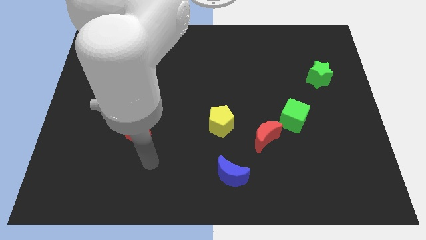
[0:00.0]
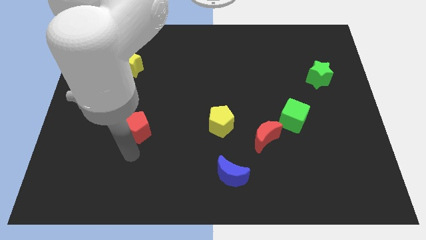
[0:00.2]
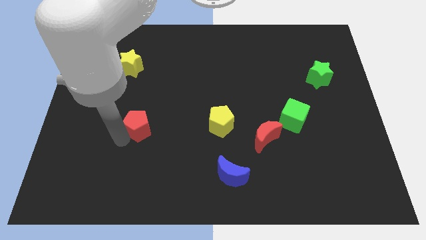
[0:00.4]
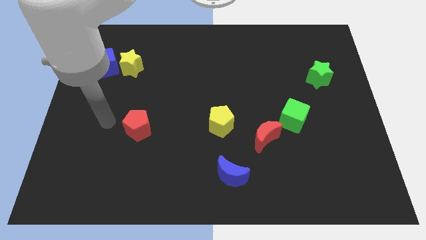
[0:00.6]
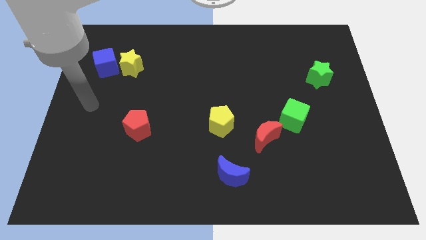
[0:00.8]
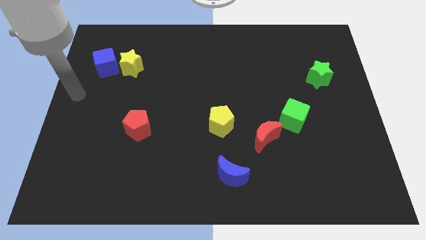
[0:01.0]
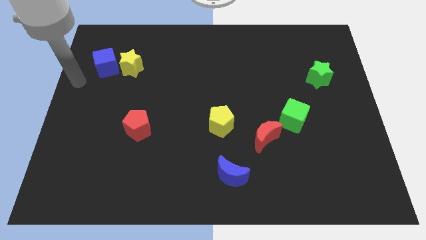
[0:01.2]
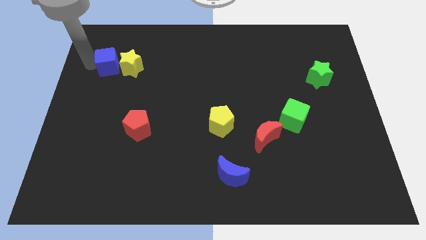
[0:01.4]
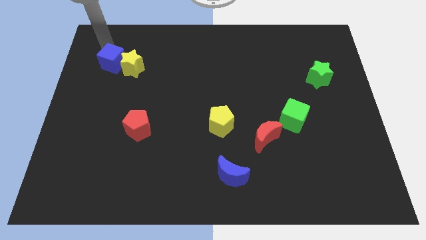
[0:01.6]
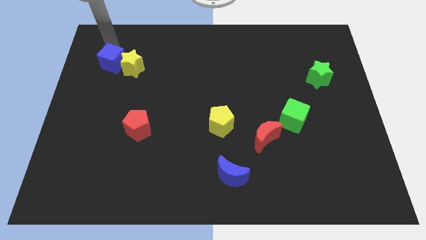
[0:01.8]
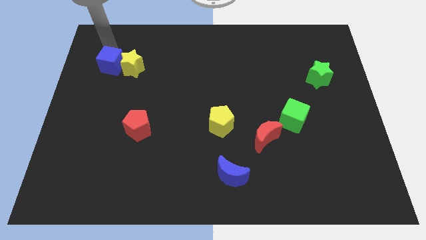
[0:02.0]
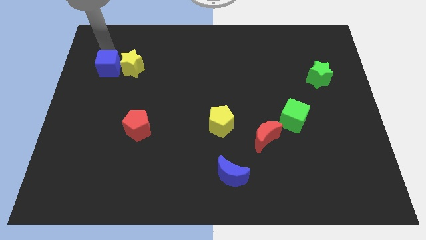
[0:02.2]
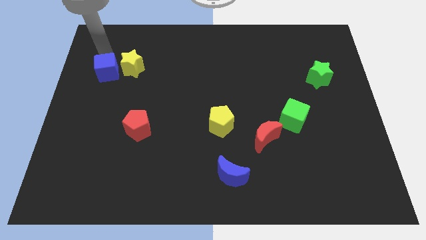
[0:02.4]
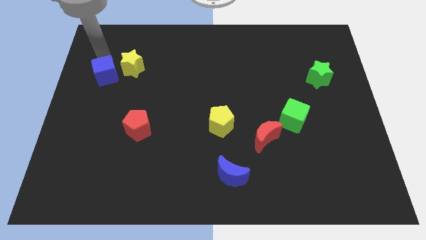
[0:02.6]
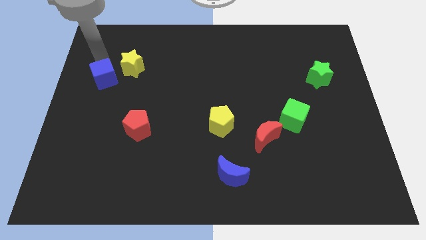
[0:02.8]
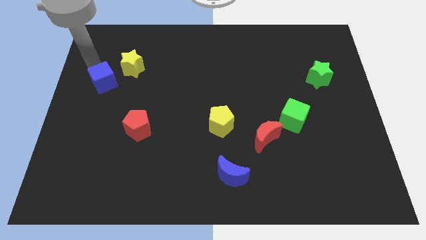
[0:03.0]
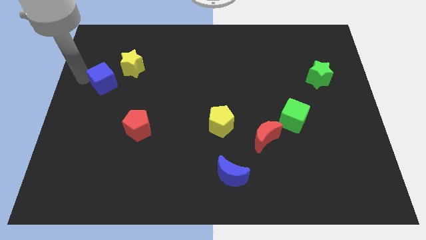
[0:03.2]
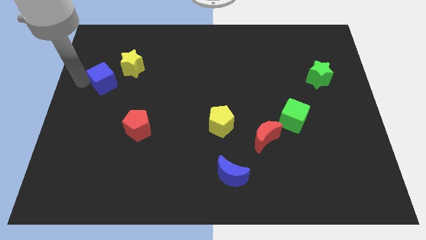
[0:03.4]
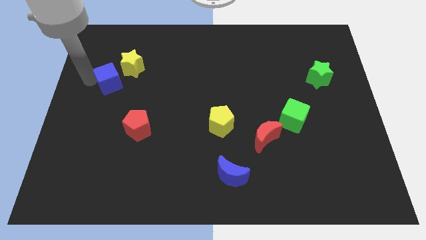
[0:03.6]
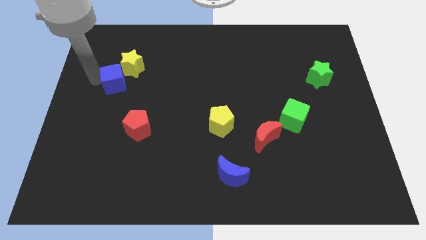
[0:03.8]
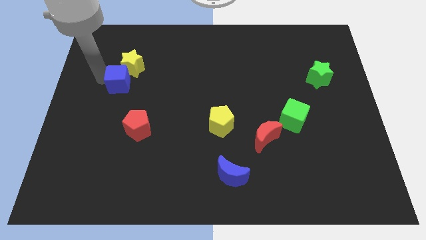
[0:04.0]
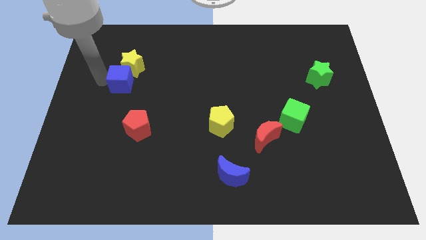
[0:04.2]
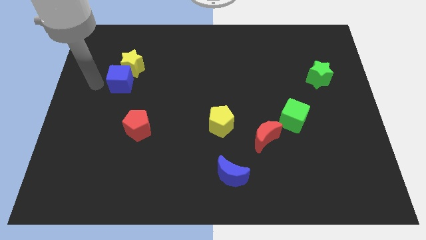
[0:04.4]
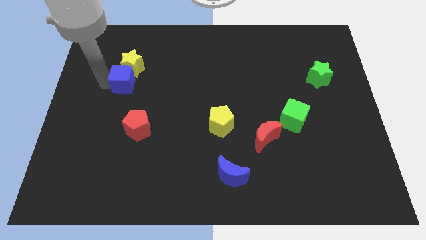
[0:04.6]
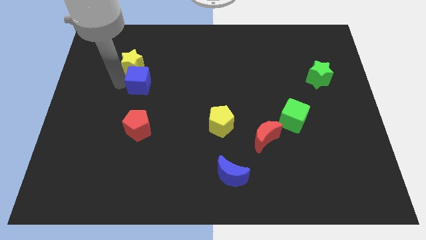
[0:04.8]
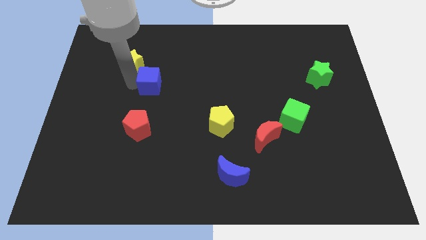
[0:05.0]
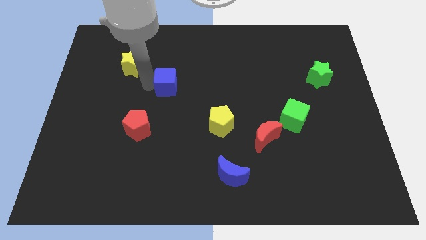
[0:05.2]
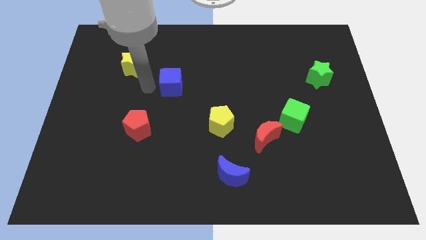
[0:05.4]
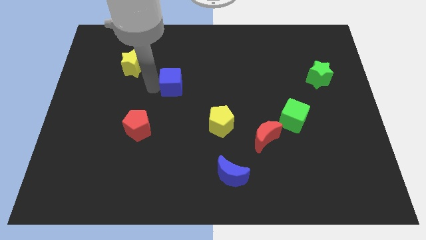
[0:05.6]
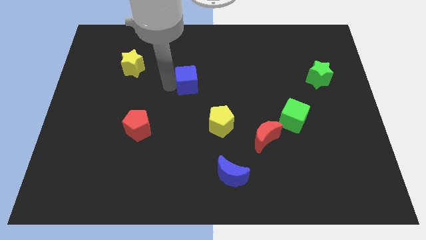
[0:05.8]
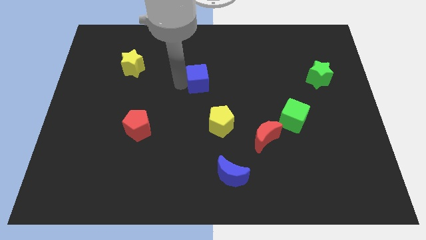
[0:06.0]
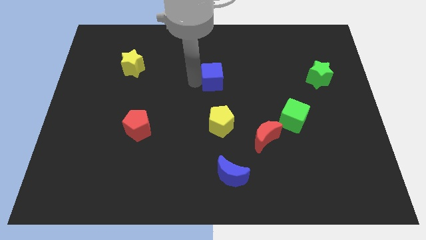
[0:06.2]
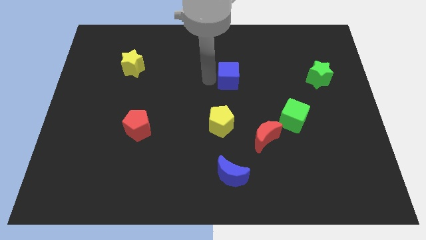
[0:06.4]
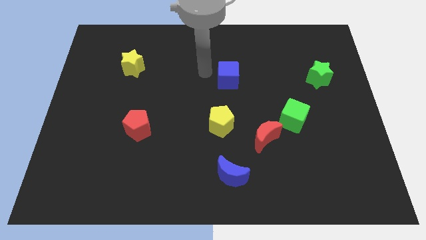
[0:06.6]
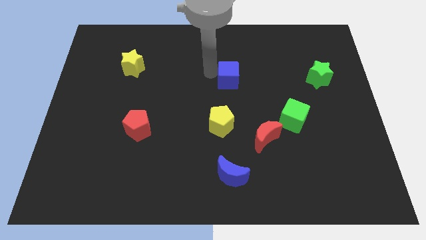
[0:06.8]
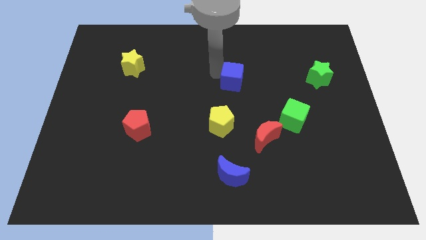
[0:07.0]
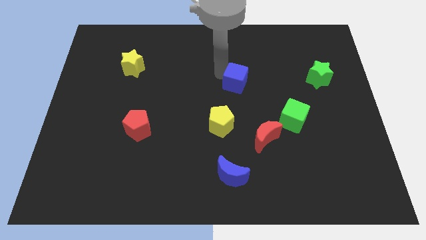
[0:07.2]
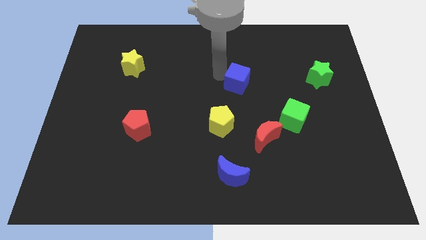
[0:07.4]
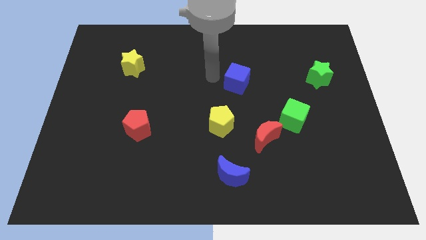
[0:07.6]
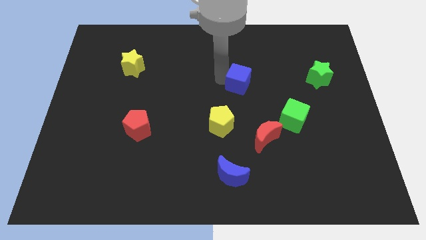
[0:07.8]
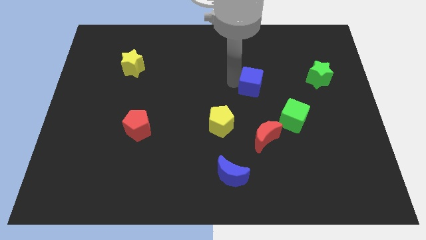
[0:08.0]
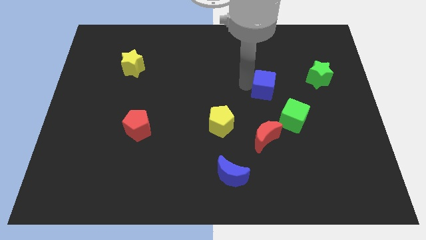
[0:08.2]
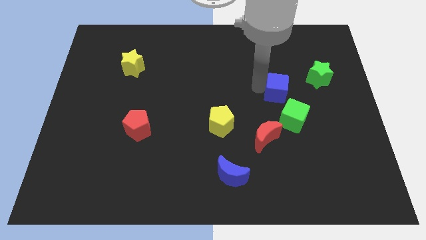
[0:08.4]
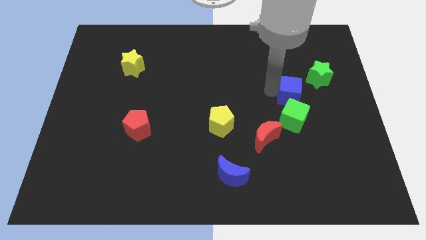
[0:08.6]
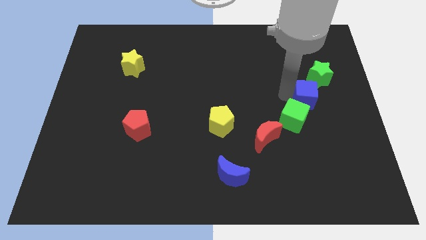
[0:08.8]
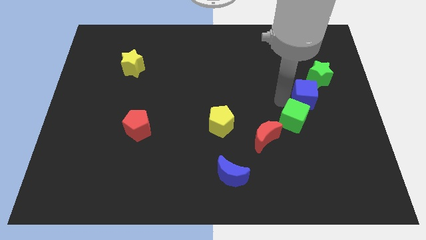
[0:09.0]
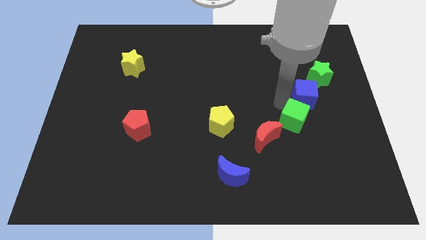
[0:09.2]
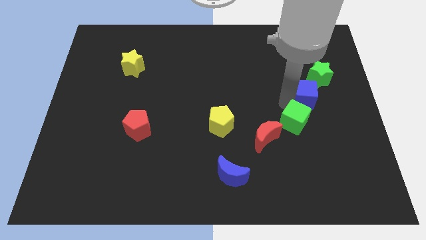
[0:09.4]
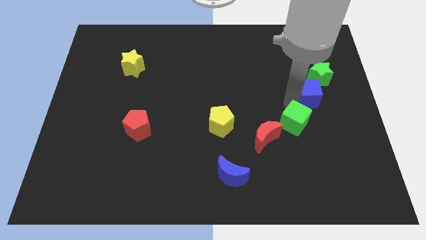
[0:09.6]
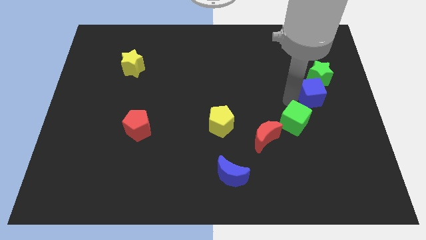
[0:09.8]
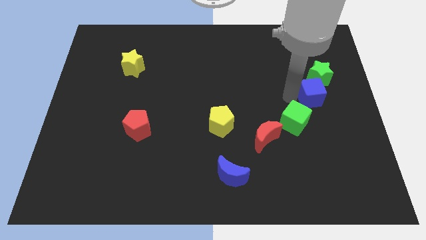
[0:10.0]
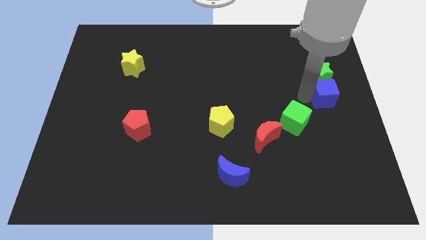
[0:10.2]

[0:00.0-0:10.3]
push the blue cube to the right side

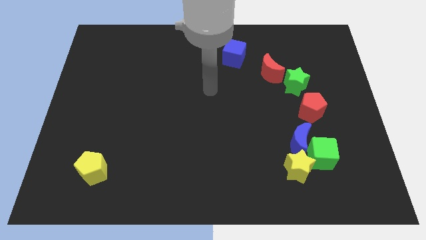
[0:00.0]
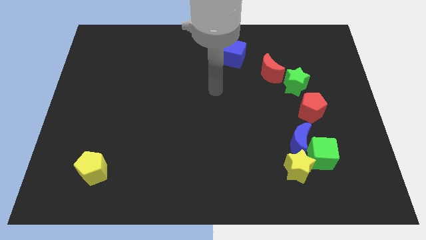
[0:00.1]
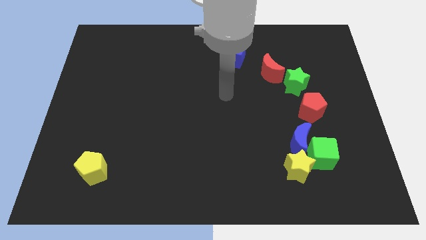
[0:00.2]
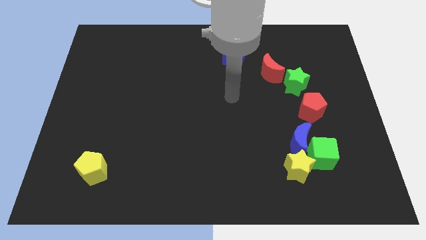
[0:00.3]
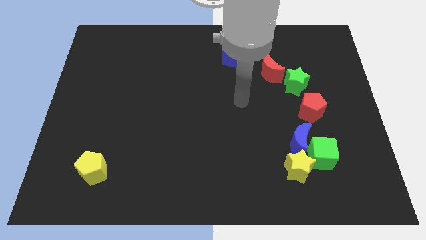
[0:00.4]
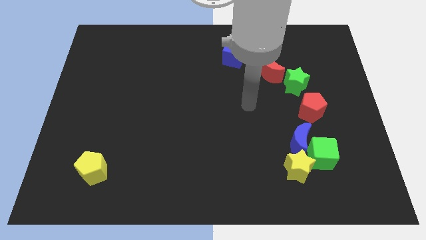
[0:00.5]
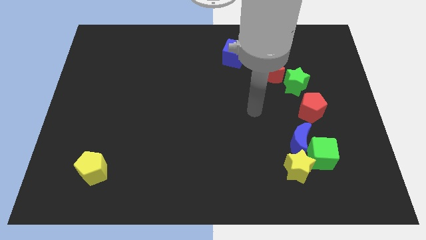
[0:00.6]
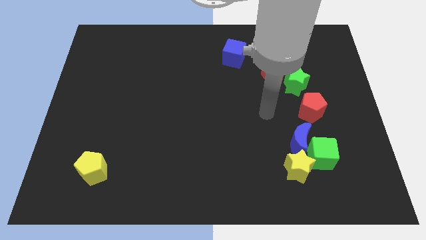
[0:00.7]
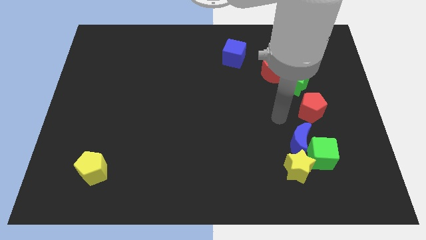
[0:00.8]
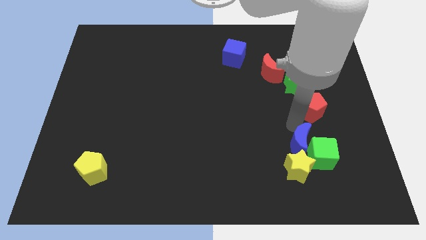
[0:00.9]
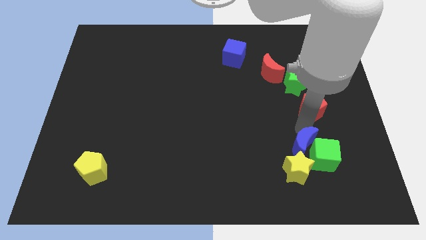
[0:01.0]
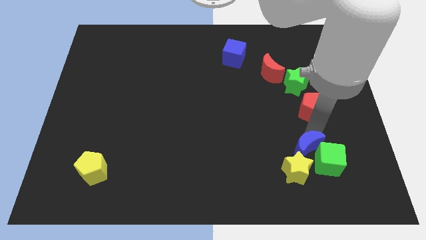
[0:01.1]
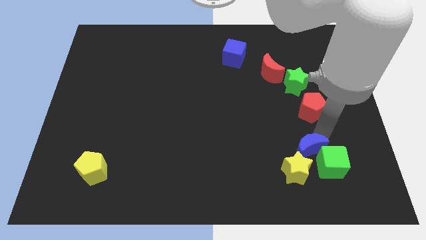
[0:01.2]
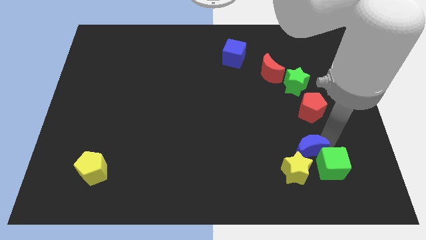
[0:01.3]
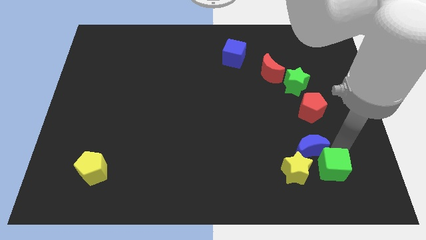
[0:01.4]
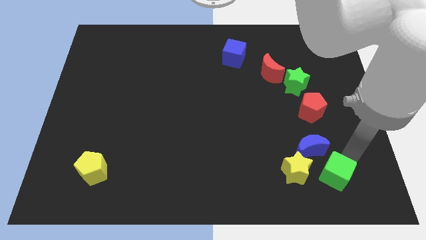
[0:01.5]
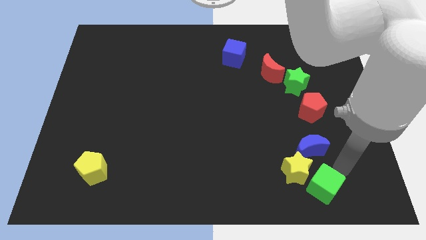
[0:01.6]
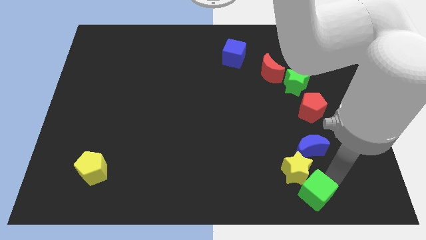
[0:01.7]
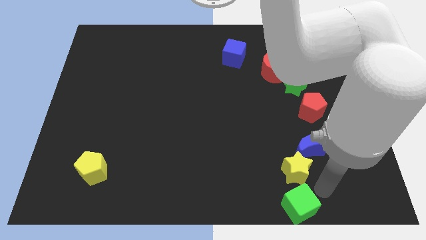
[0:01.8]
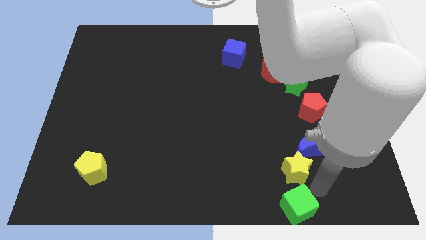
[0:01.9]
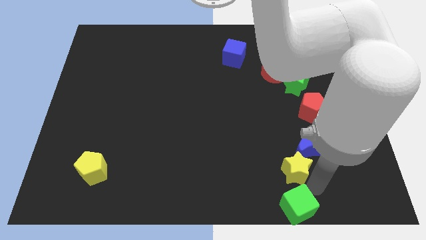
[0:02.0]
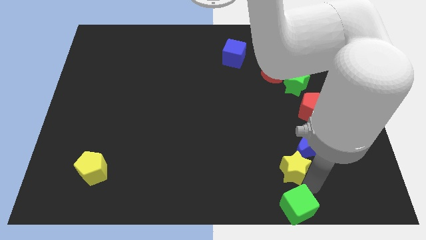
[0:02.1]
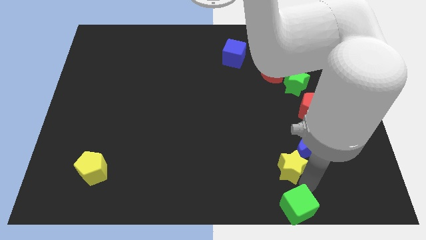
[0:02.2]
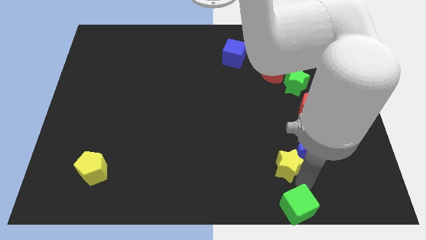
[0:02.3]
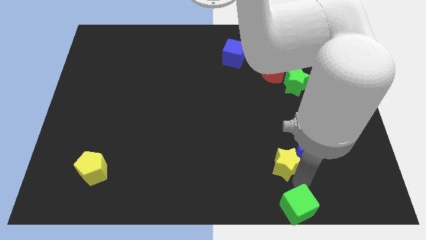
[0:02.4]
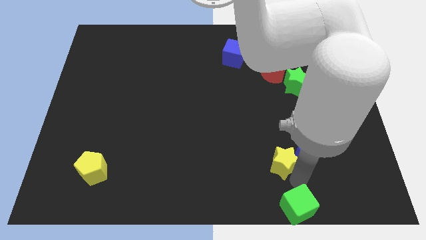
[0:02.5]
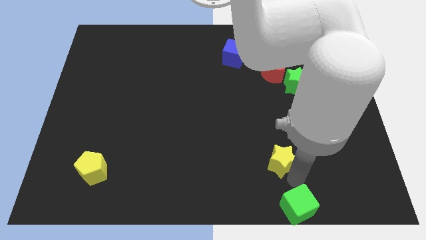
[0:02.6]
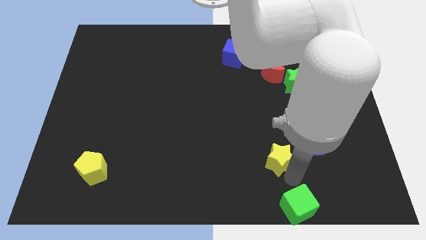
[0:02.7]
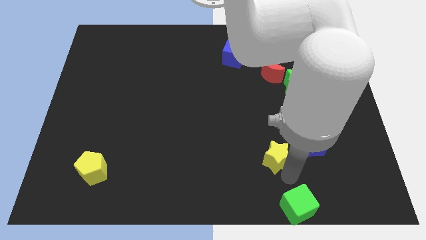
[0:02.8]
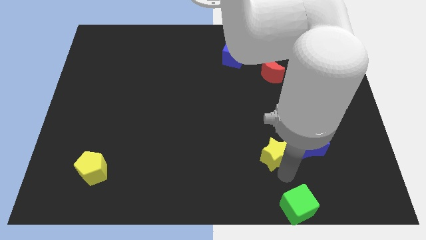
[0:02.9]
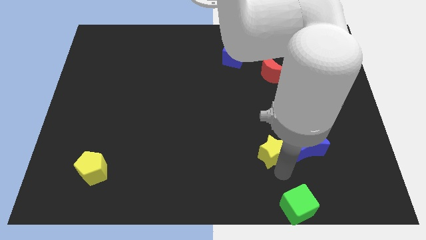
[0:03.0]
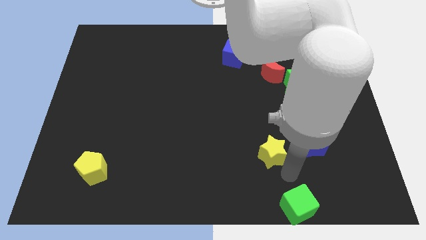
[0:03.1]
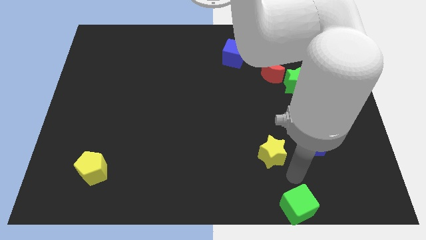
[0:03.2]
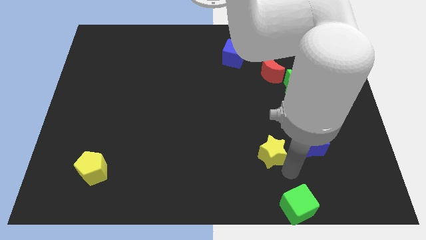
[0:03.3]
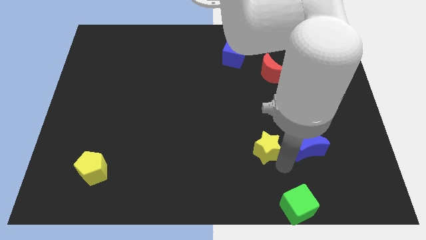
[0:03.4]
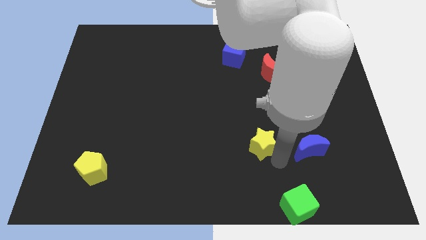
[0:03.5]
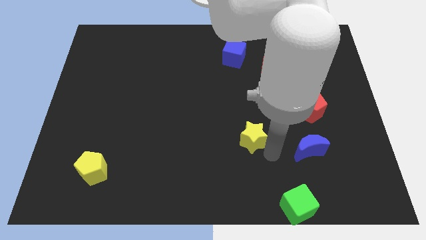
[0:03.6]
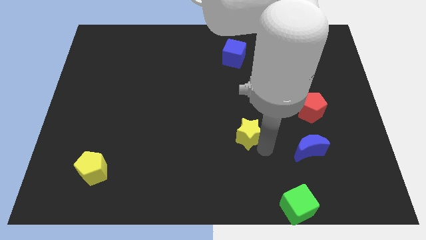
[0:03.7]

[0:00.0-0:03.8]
push the yellow star to the middle of the board
